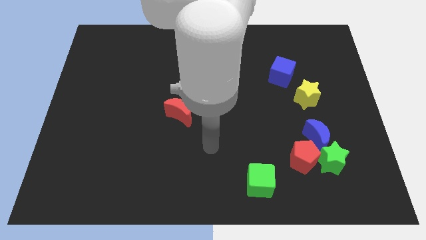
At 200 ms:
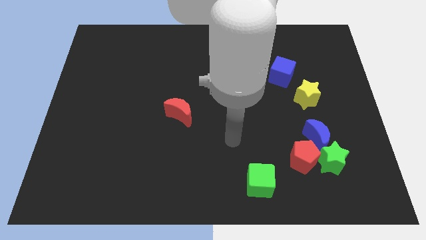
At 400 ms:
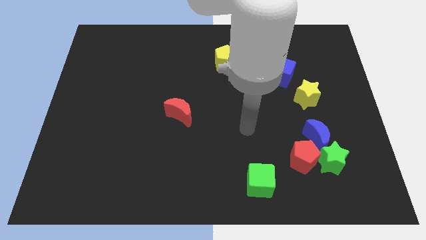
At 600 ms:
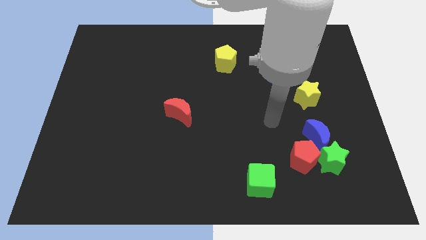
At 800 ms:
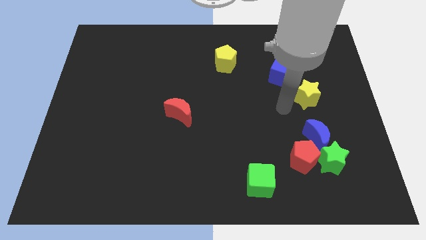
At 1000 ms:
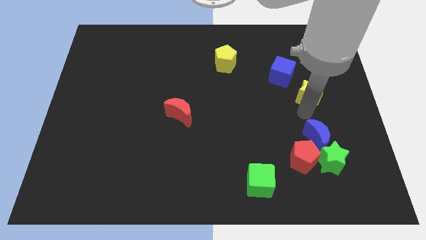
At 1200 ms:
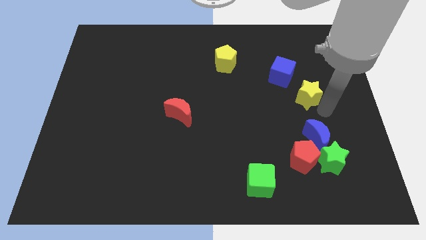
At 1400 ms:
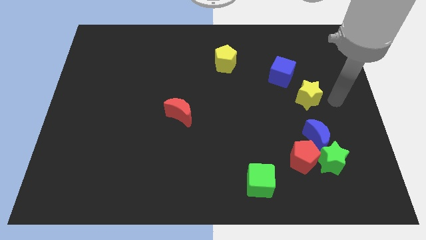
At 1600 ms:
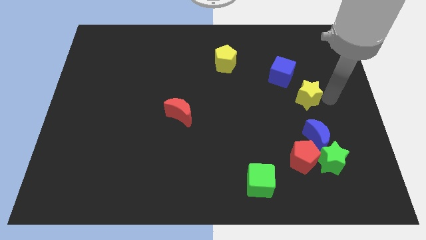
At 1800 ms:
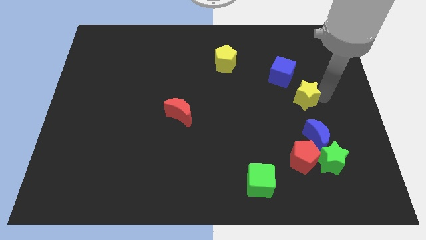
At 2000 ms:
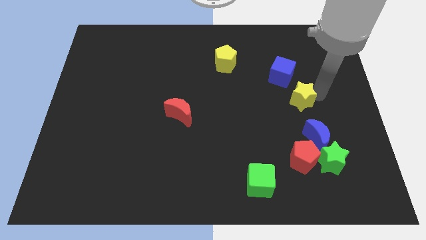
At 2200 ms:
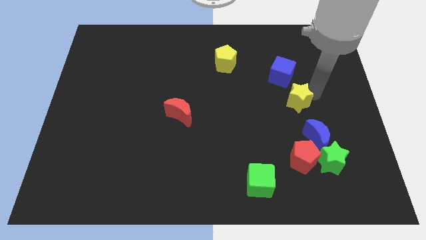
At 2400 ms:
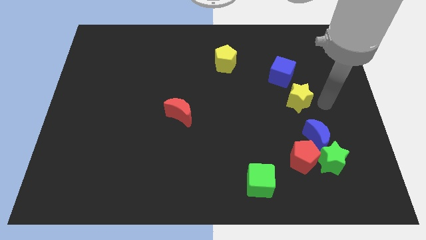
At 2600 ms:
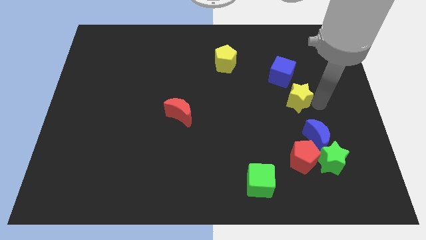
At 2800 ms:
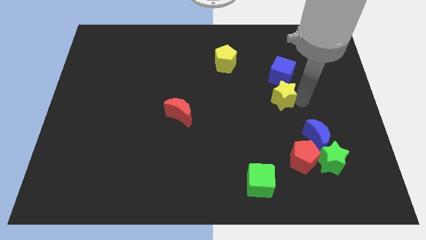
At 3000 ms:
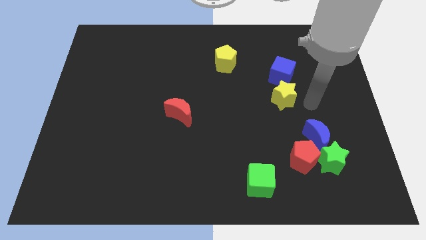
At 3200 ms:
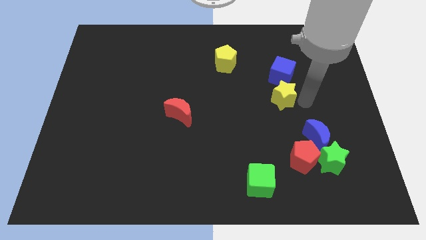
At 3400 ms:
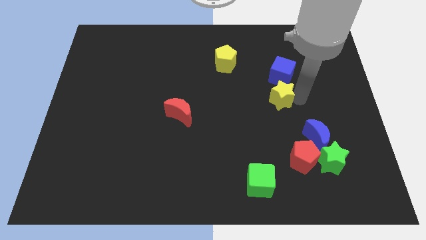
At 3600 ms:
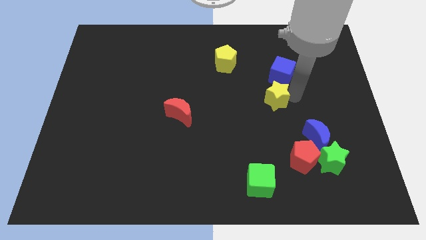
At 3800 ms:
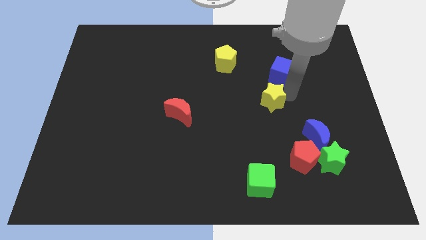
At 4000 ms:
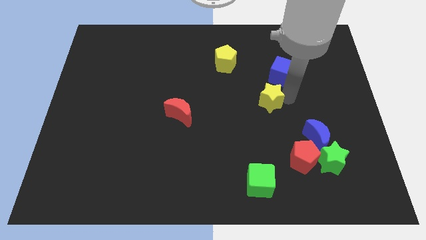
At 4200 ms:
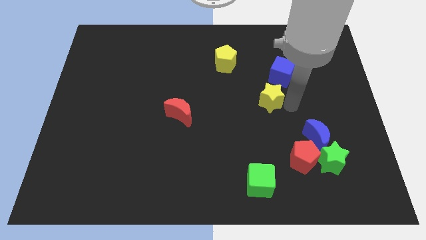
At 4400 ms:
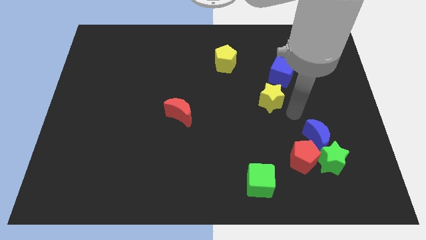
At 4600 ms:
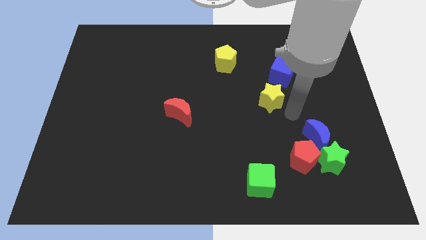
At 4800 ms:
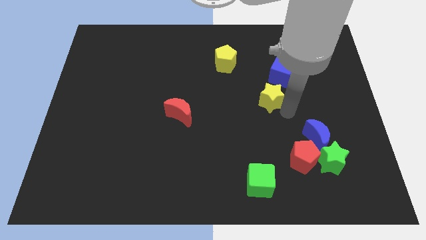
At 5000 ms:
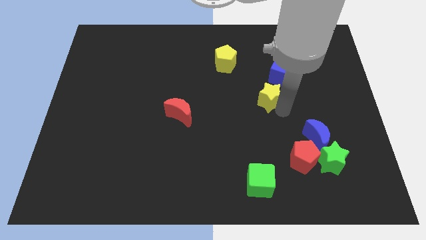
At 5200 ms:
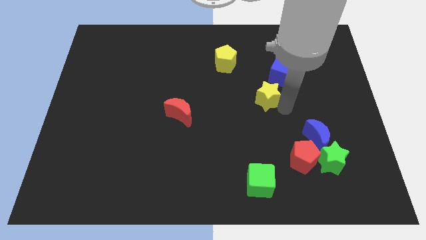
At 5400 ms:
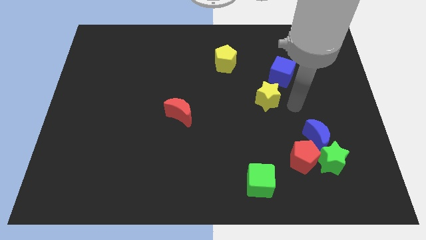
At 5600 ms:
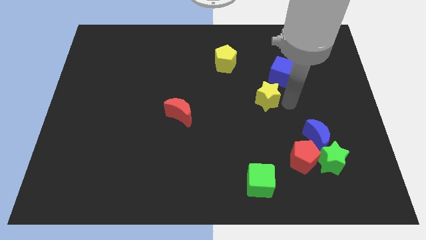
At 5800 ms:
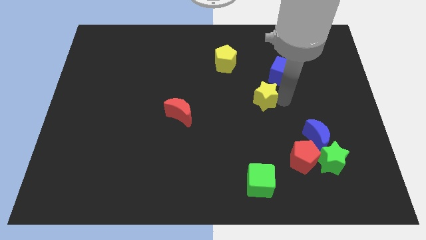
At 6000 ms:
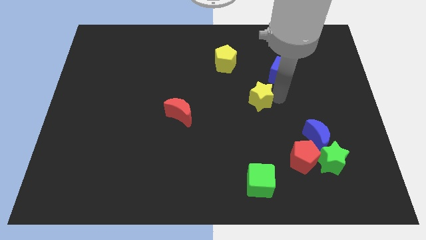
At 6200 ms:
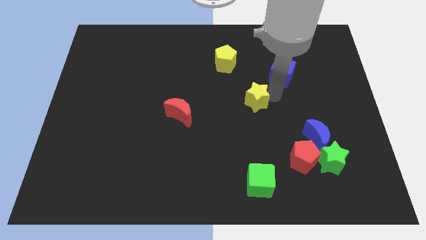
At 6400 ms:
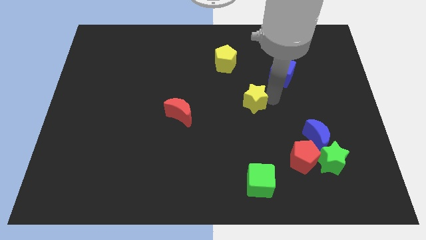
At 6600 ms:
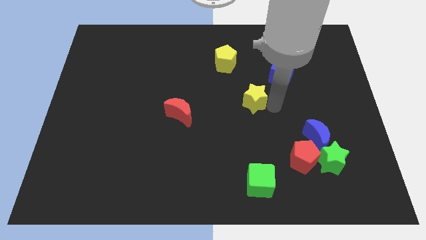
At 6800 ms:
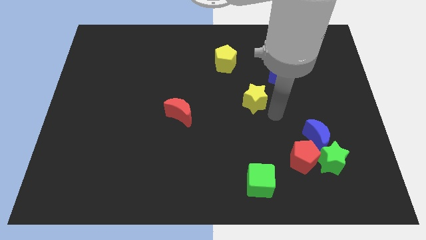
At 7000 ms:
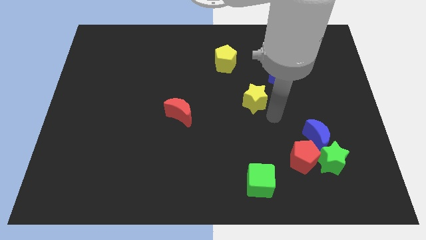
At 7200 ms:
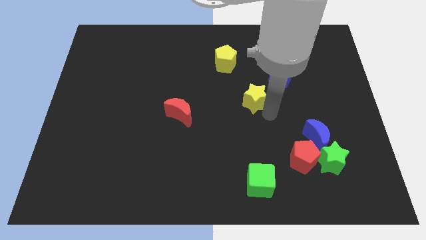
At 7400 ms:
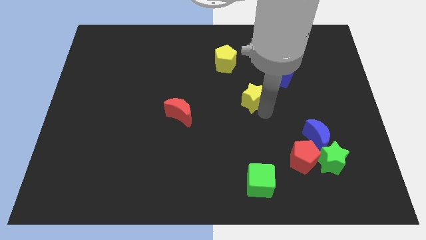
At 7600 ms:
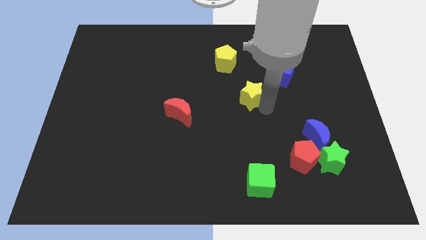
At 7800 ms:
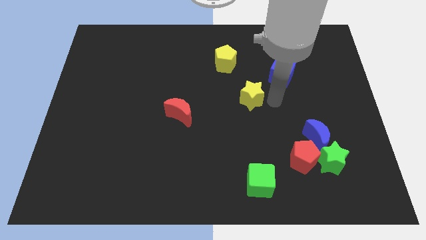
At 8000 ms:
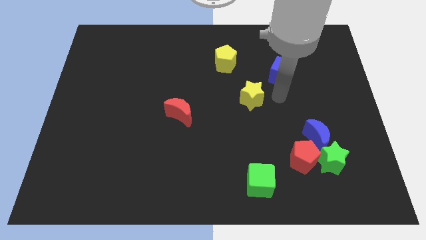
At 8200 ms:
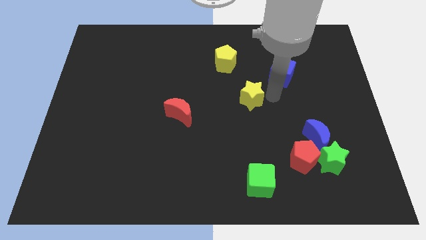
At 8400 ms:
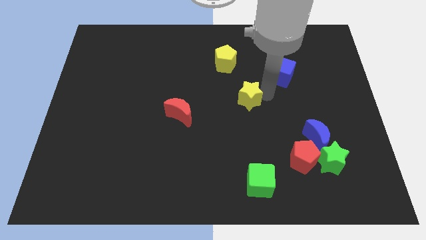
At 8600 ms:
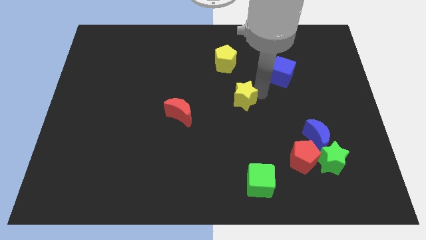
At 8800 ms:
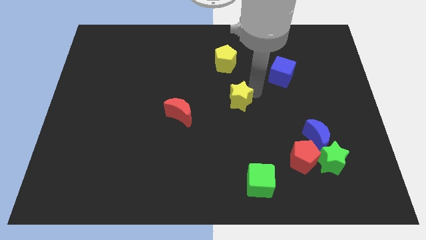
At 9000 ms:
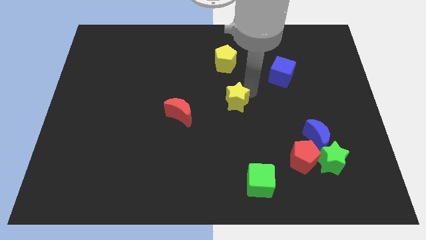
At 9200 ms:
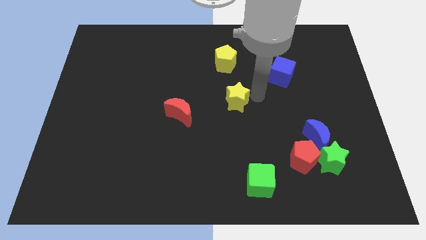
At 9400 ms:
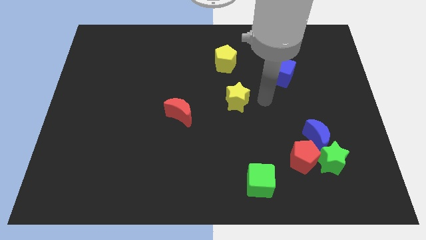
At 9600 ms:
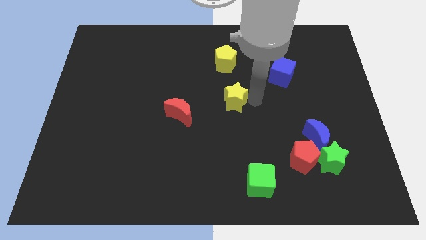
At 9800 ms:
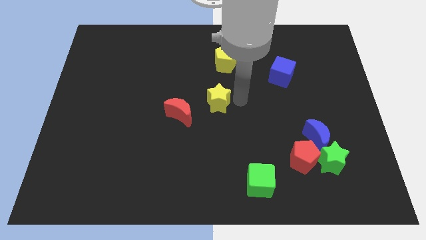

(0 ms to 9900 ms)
push the yellow star left

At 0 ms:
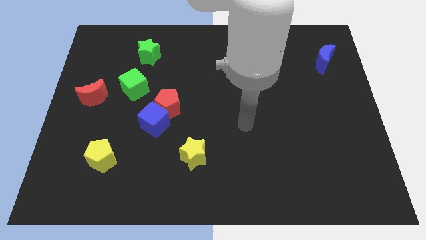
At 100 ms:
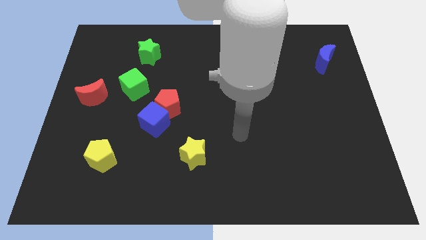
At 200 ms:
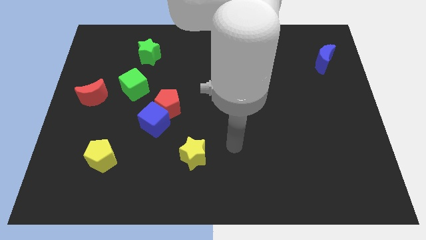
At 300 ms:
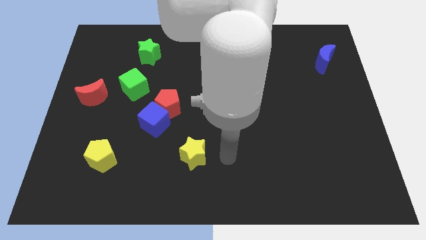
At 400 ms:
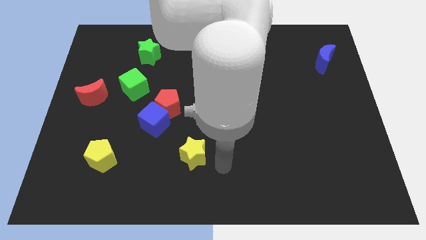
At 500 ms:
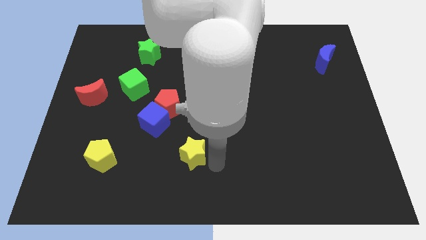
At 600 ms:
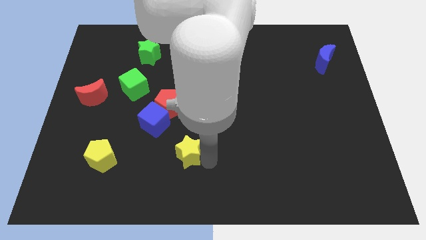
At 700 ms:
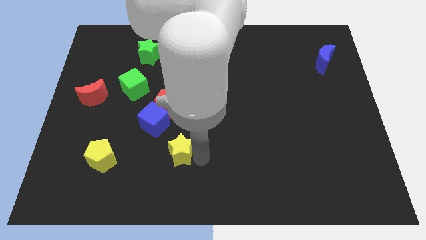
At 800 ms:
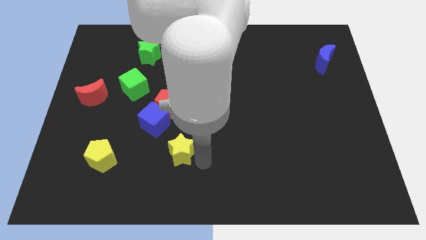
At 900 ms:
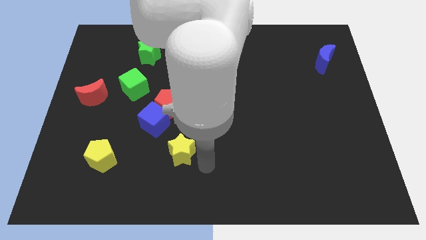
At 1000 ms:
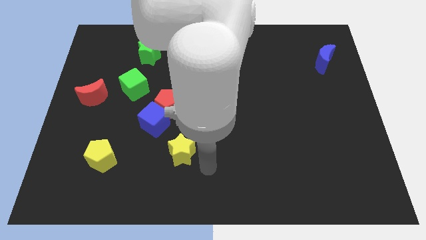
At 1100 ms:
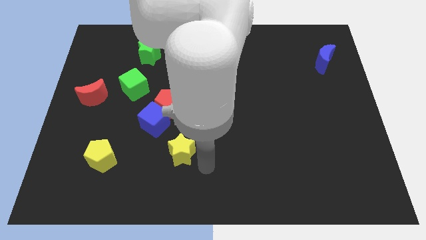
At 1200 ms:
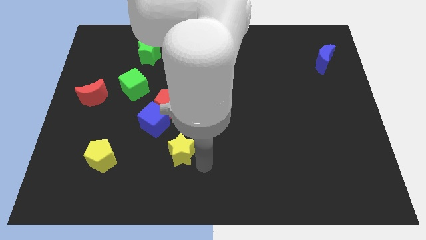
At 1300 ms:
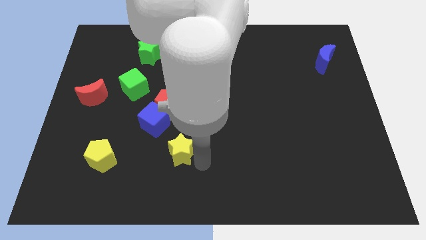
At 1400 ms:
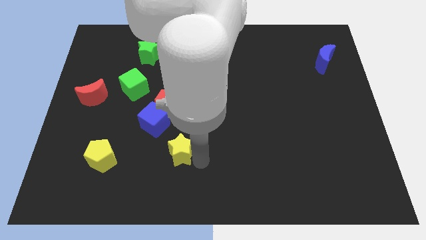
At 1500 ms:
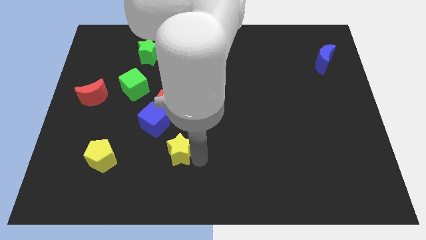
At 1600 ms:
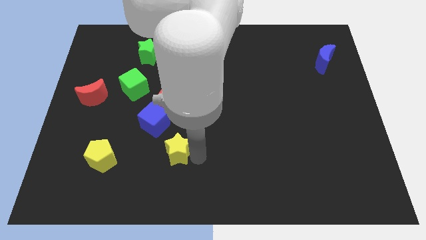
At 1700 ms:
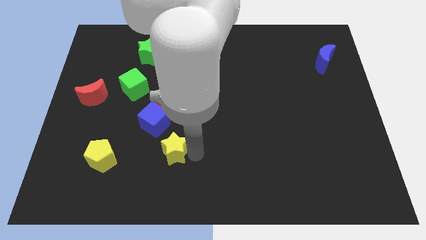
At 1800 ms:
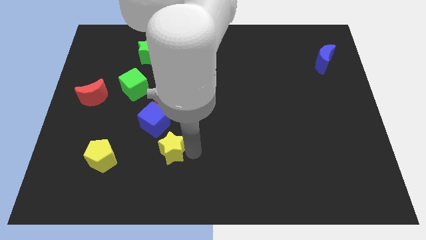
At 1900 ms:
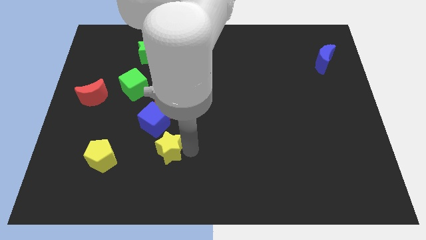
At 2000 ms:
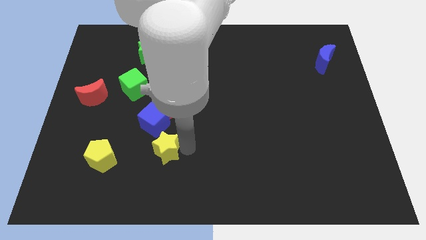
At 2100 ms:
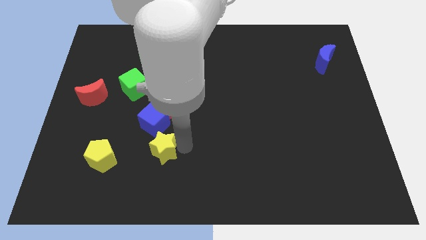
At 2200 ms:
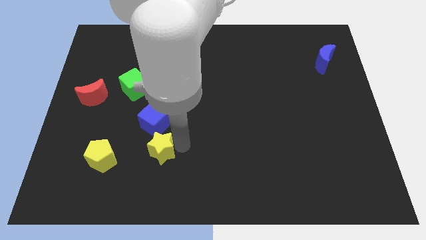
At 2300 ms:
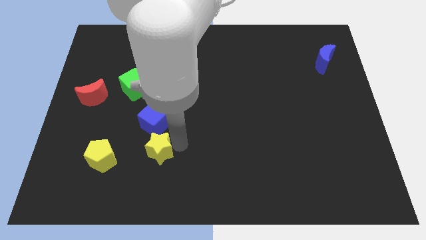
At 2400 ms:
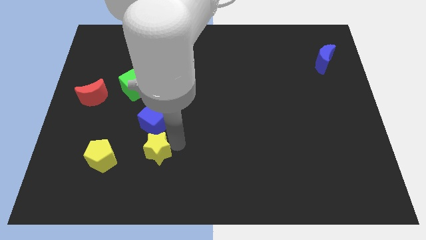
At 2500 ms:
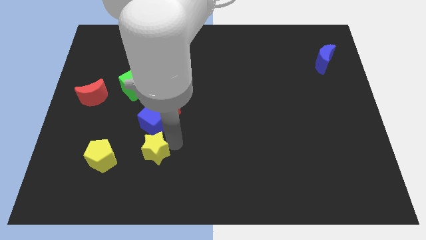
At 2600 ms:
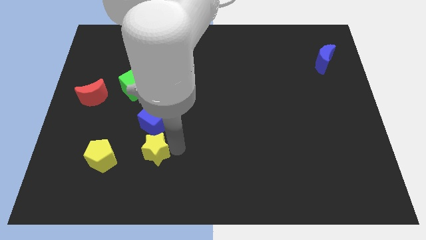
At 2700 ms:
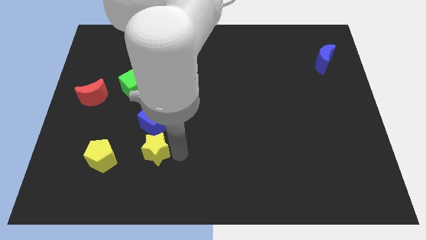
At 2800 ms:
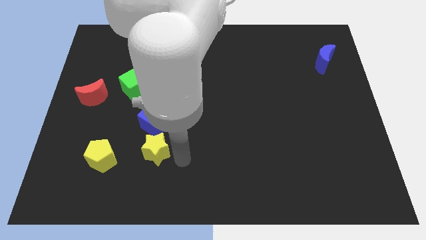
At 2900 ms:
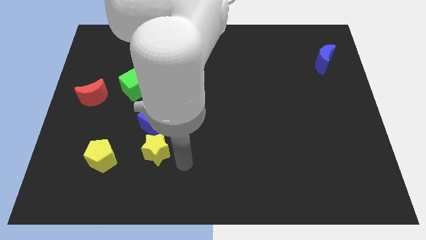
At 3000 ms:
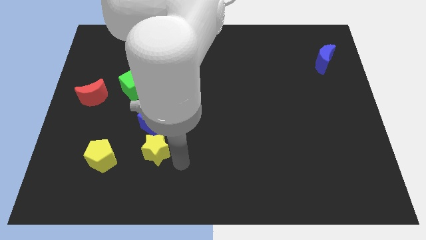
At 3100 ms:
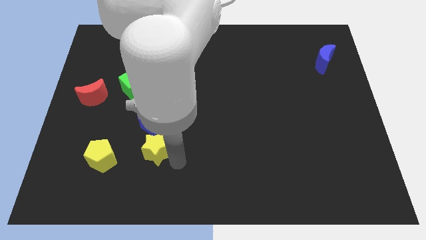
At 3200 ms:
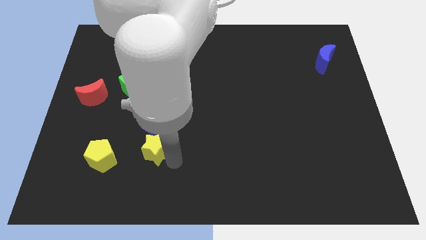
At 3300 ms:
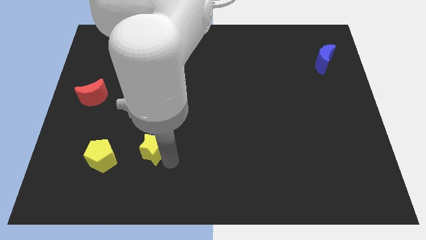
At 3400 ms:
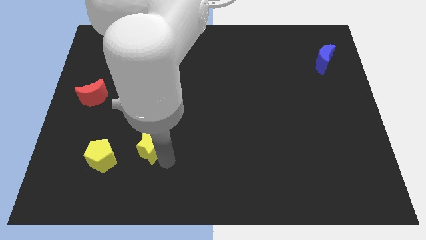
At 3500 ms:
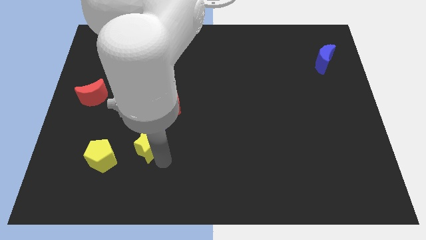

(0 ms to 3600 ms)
slightly slide the yellow star up and then to the left
